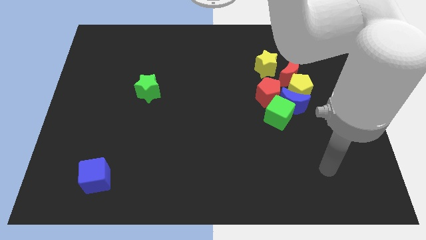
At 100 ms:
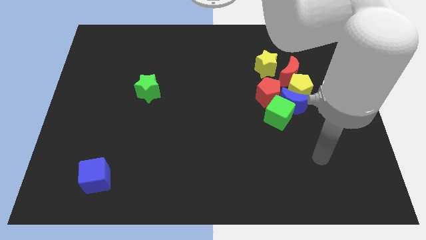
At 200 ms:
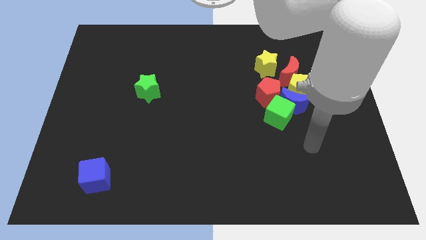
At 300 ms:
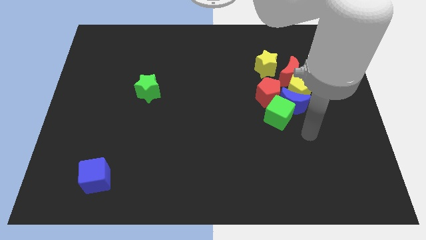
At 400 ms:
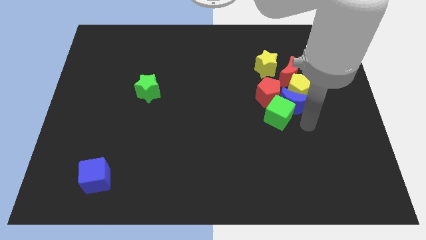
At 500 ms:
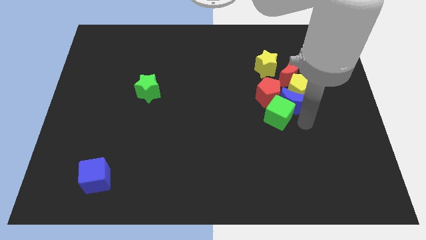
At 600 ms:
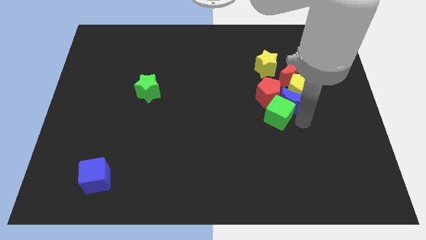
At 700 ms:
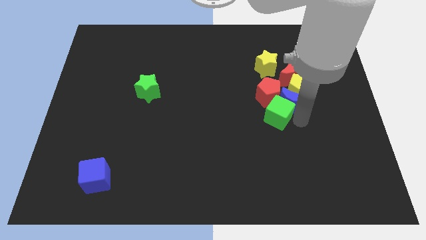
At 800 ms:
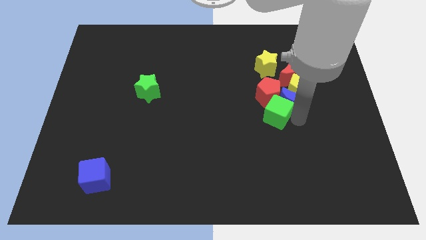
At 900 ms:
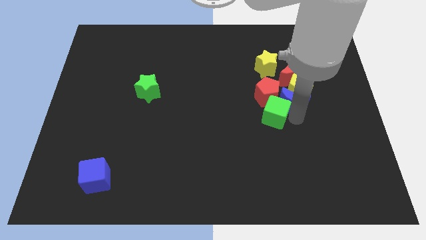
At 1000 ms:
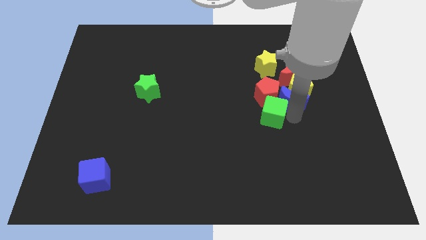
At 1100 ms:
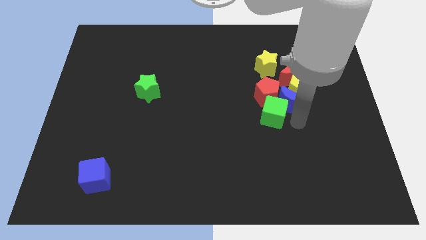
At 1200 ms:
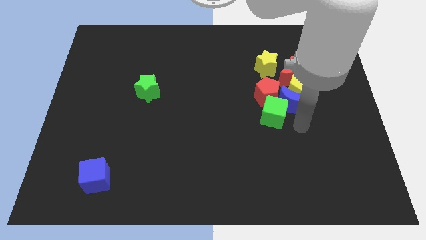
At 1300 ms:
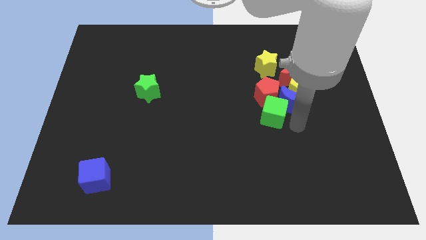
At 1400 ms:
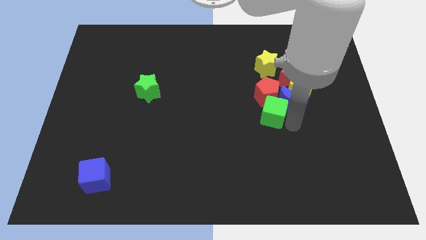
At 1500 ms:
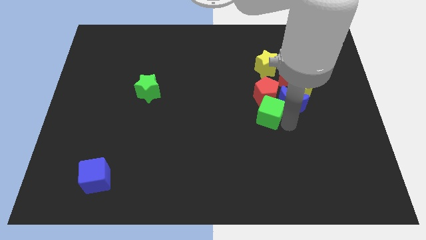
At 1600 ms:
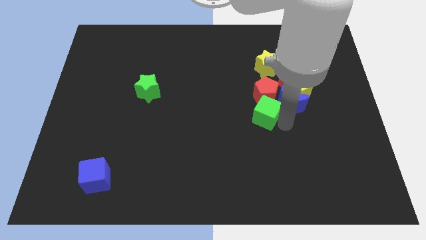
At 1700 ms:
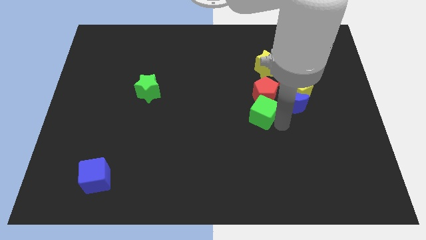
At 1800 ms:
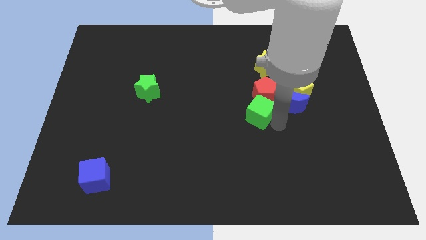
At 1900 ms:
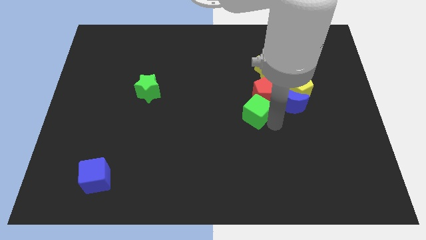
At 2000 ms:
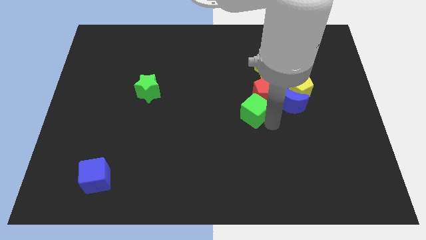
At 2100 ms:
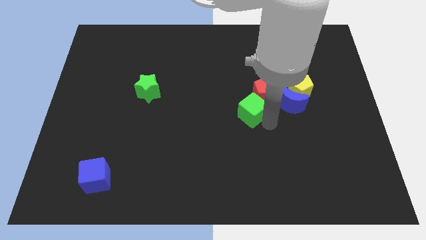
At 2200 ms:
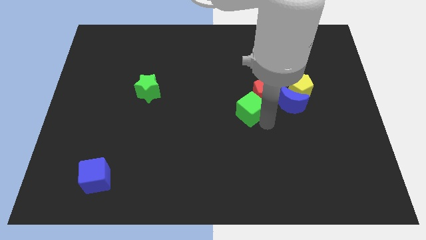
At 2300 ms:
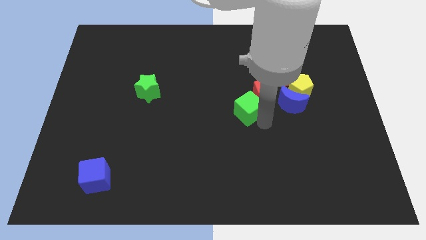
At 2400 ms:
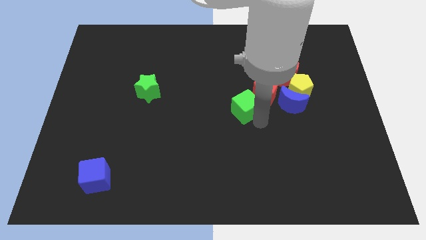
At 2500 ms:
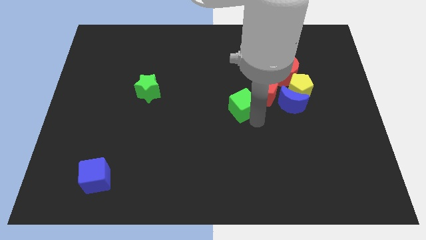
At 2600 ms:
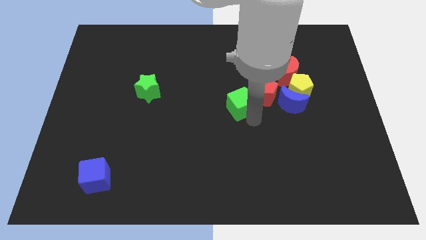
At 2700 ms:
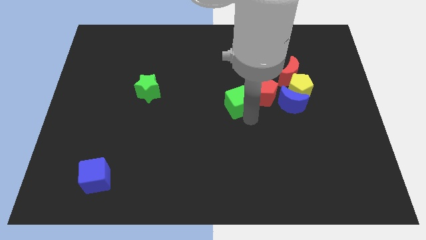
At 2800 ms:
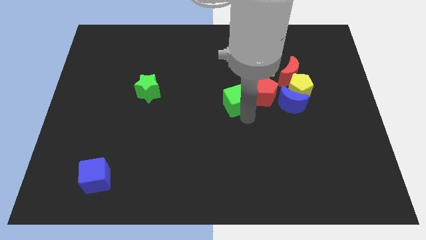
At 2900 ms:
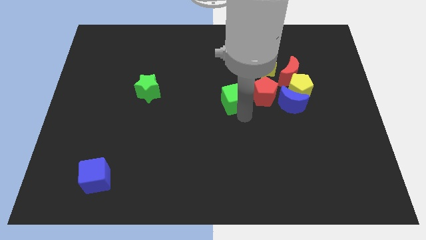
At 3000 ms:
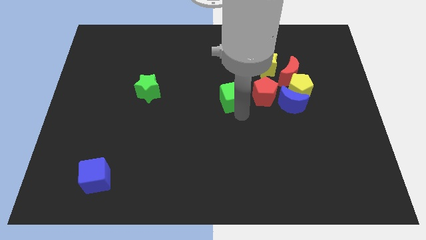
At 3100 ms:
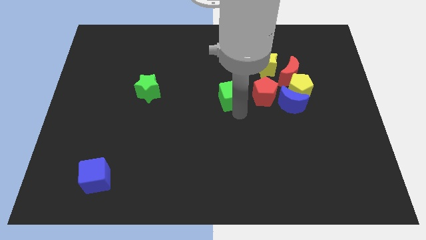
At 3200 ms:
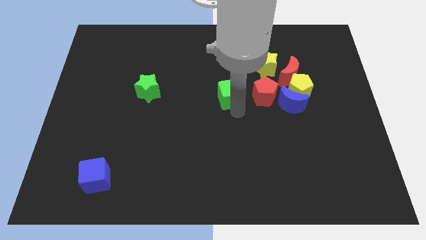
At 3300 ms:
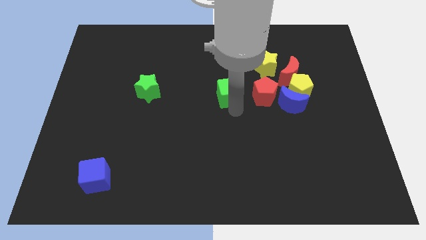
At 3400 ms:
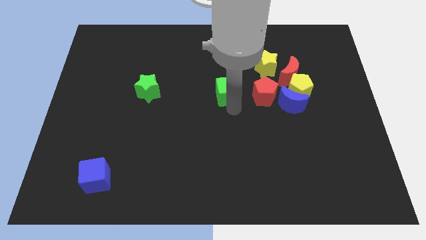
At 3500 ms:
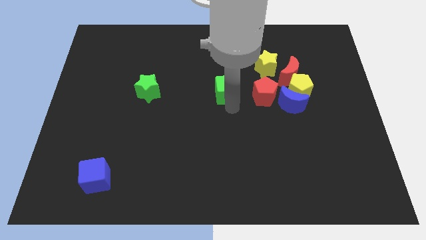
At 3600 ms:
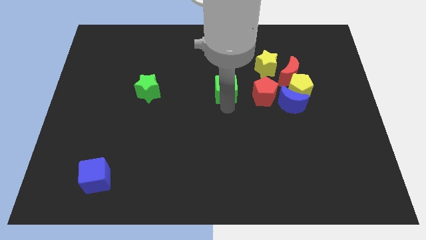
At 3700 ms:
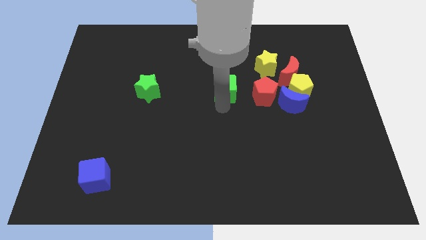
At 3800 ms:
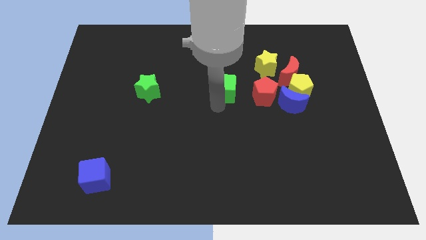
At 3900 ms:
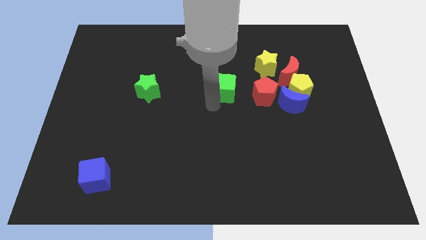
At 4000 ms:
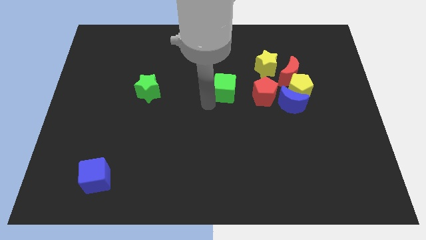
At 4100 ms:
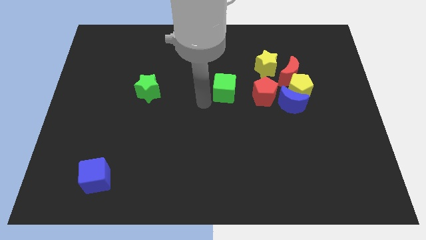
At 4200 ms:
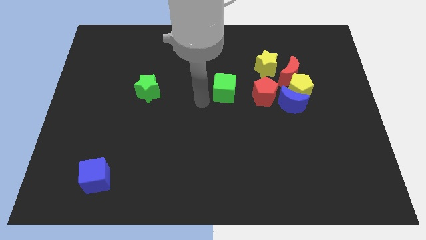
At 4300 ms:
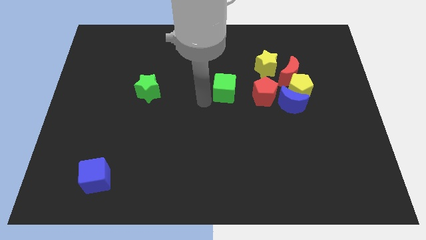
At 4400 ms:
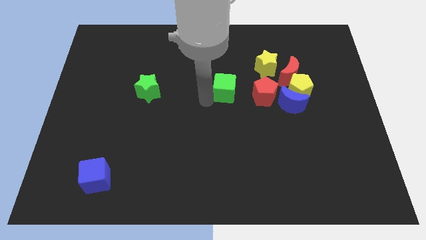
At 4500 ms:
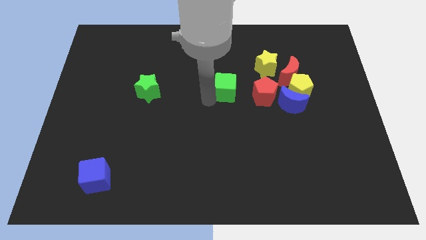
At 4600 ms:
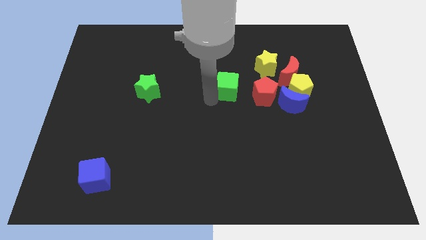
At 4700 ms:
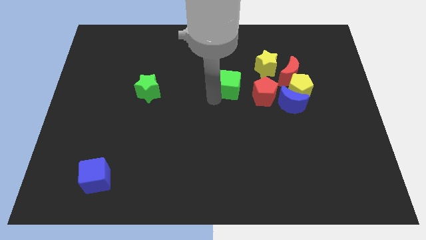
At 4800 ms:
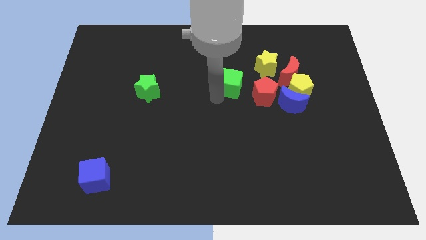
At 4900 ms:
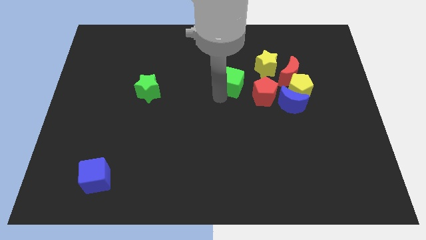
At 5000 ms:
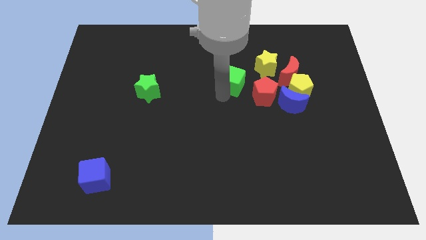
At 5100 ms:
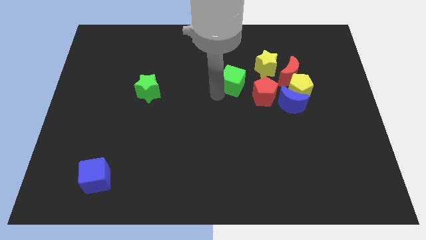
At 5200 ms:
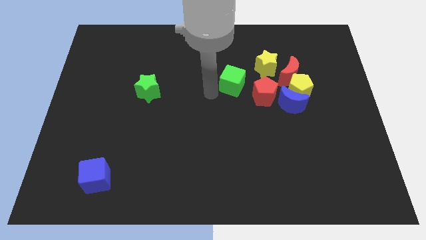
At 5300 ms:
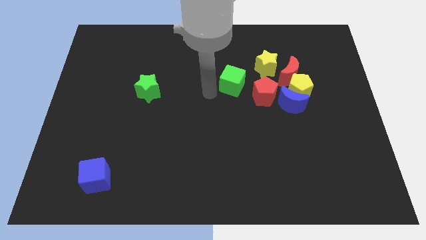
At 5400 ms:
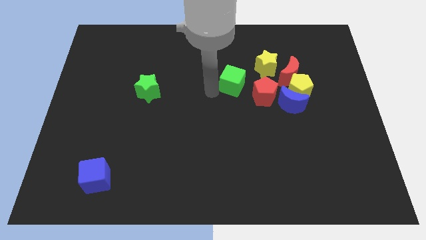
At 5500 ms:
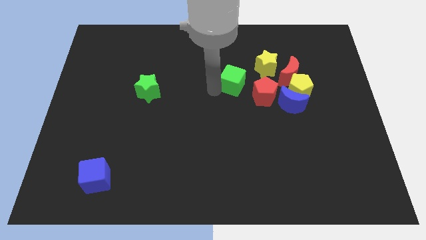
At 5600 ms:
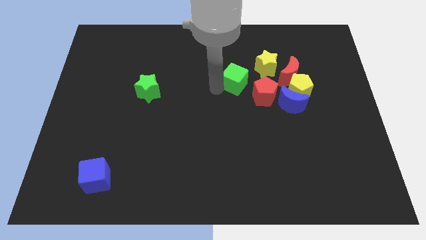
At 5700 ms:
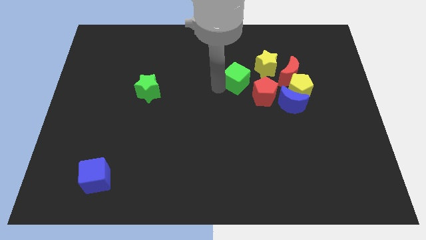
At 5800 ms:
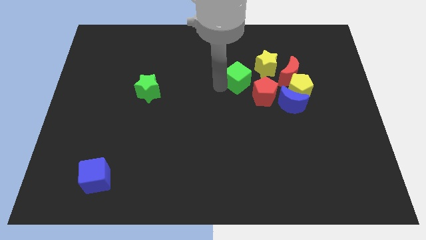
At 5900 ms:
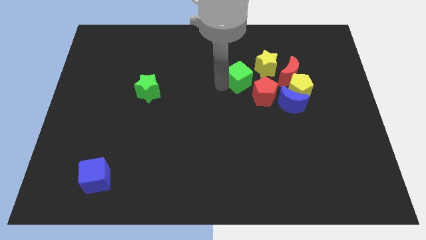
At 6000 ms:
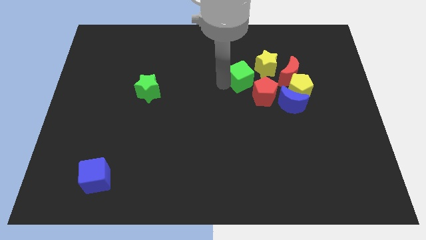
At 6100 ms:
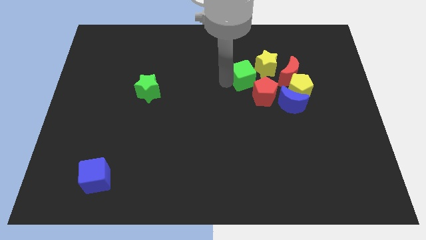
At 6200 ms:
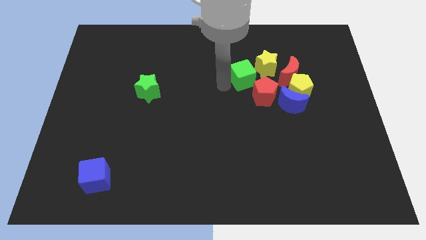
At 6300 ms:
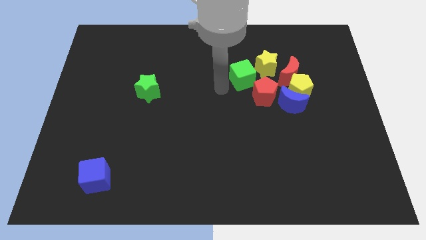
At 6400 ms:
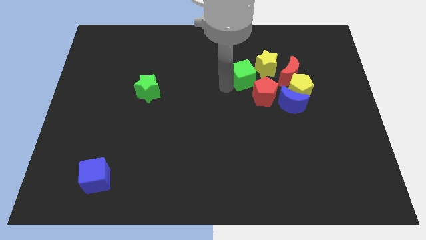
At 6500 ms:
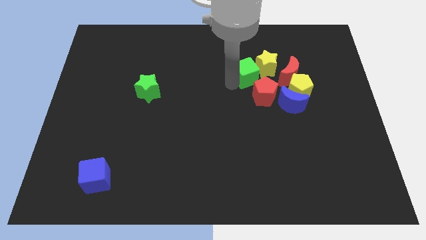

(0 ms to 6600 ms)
slide the green cube close to the yellow star

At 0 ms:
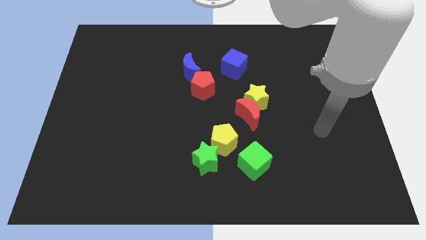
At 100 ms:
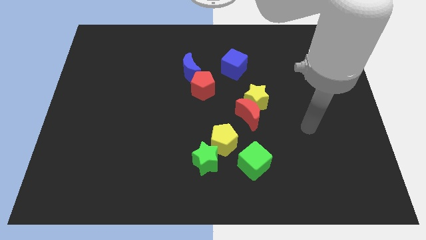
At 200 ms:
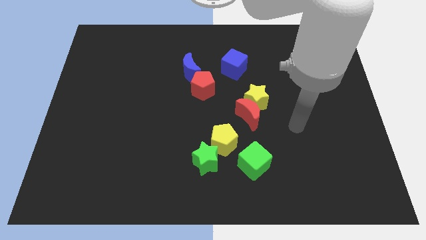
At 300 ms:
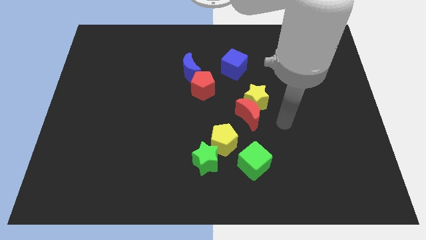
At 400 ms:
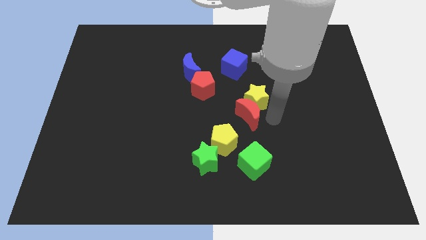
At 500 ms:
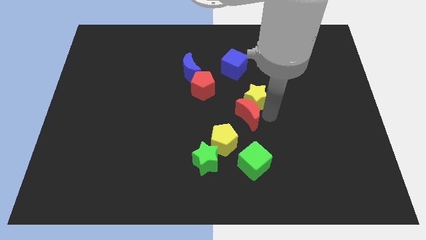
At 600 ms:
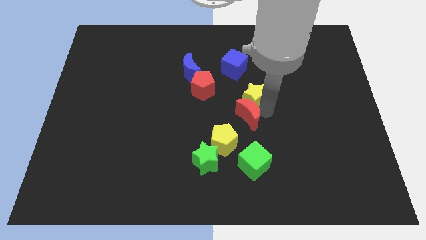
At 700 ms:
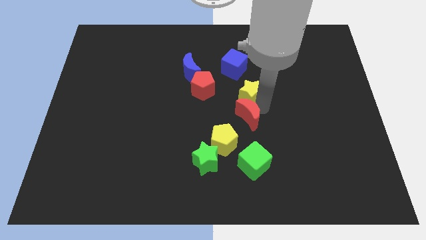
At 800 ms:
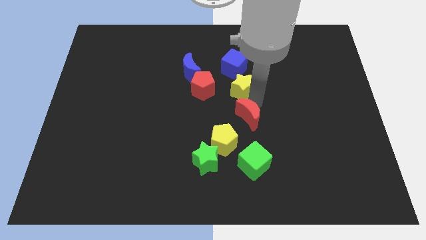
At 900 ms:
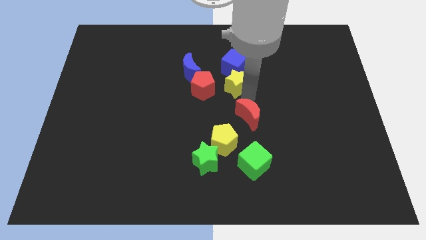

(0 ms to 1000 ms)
put the yellow star close to the blue cube
